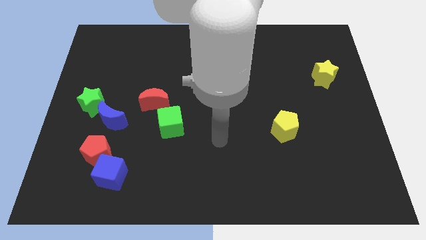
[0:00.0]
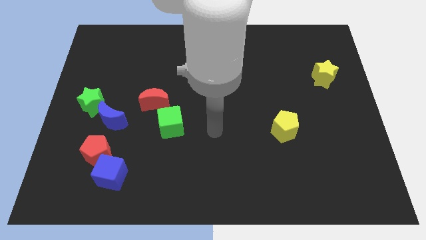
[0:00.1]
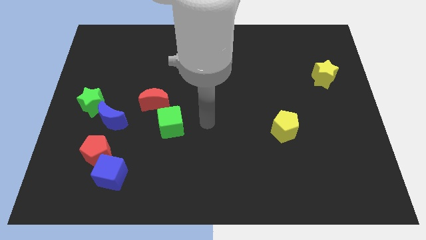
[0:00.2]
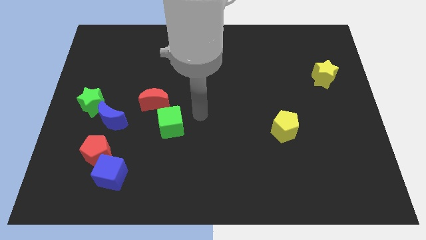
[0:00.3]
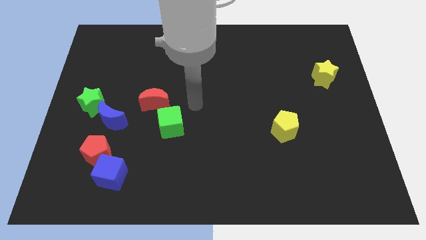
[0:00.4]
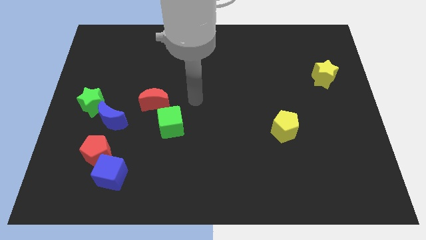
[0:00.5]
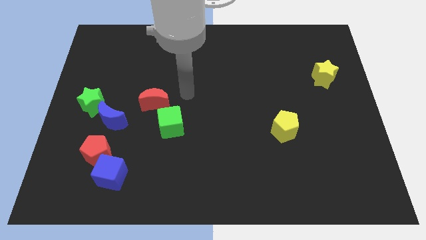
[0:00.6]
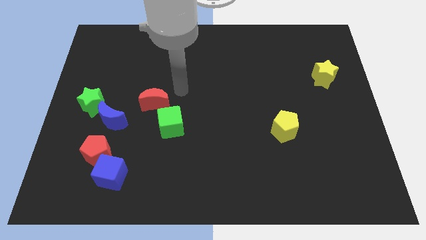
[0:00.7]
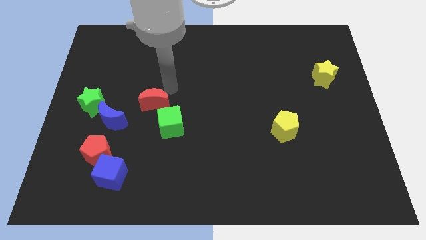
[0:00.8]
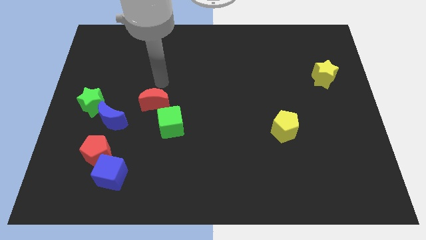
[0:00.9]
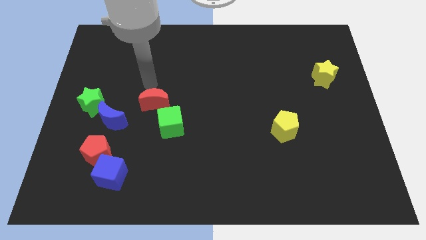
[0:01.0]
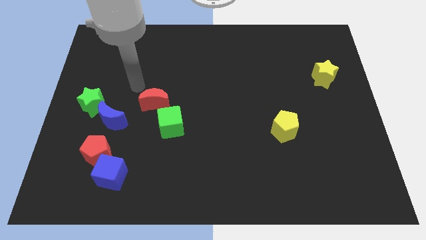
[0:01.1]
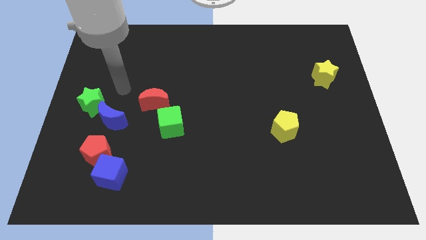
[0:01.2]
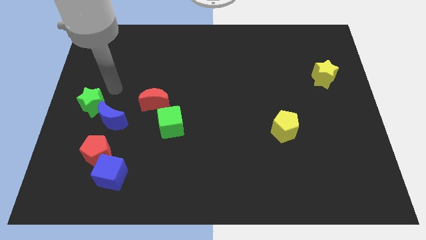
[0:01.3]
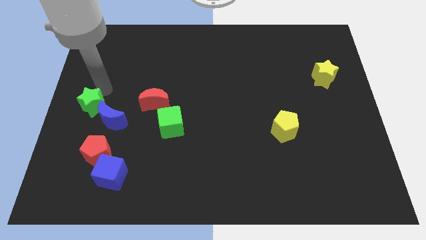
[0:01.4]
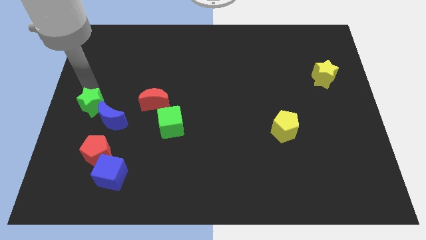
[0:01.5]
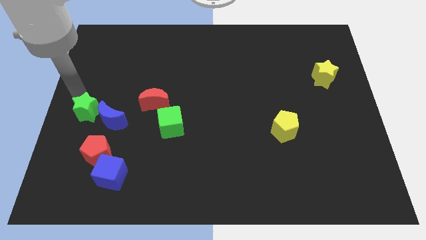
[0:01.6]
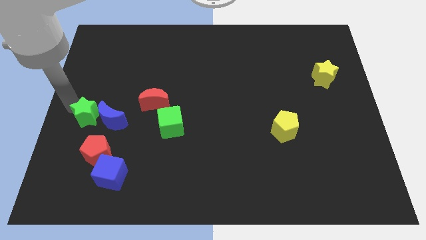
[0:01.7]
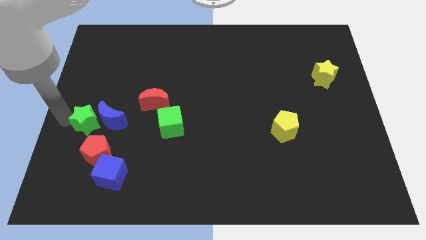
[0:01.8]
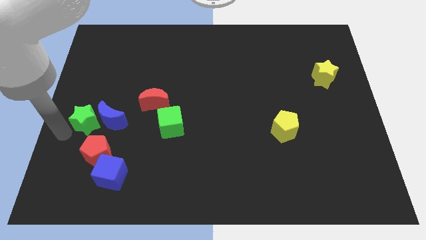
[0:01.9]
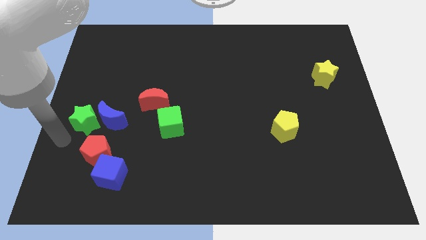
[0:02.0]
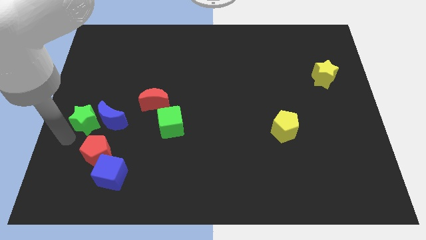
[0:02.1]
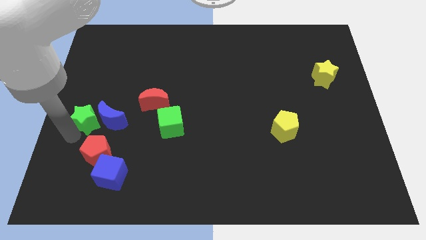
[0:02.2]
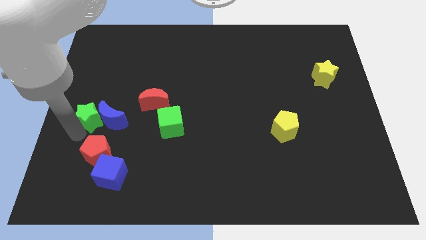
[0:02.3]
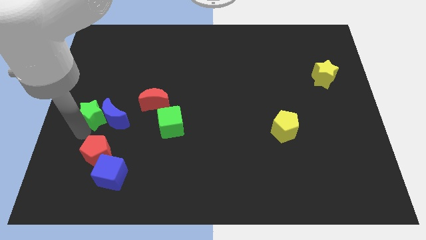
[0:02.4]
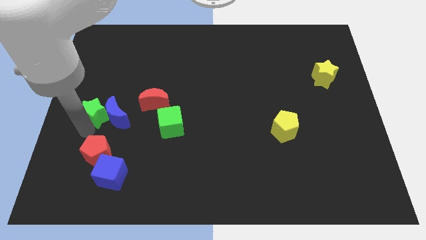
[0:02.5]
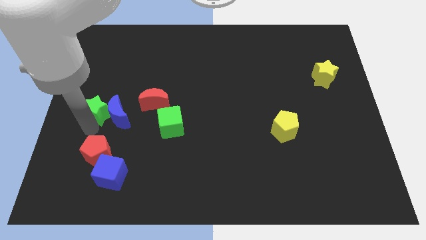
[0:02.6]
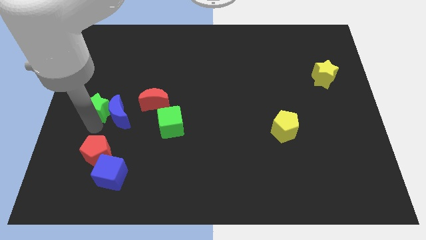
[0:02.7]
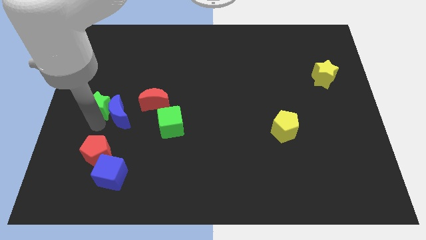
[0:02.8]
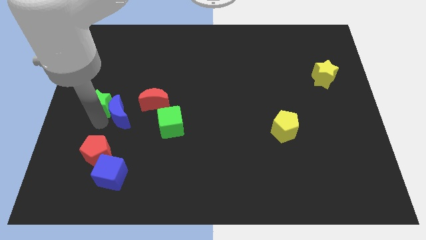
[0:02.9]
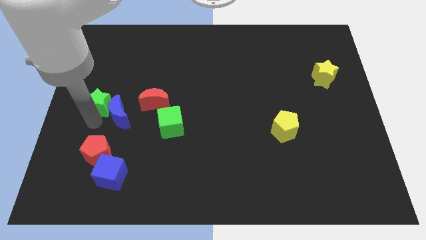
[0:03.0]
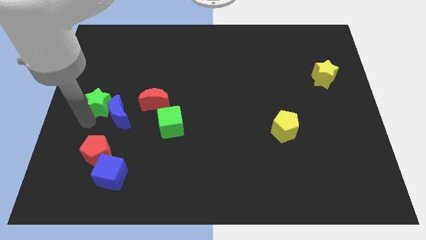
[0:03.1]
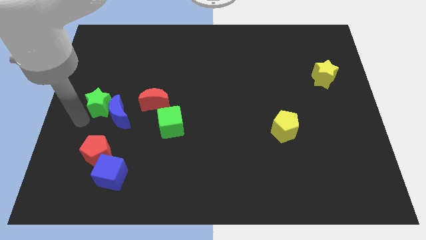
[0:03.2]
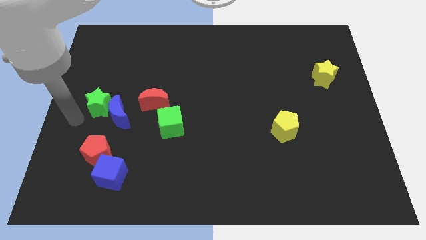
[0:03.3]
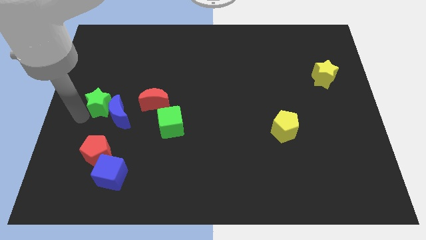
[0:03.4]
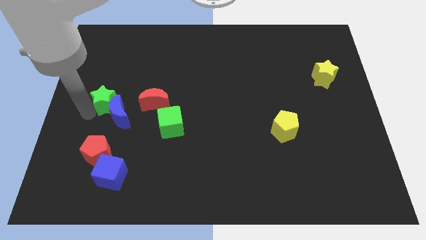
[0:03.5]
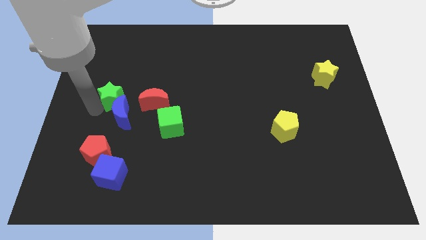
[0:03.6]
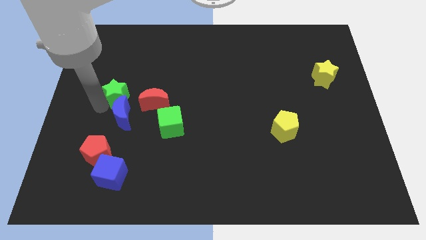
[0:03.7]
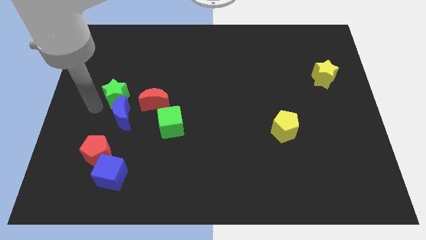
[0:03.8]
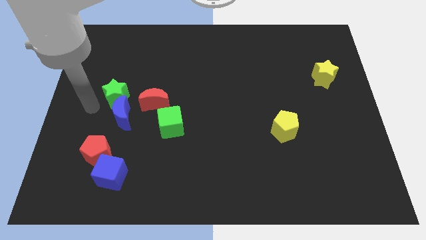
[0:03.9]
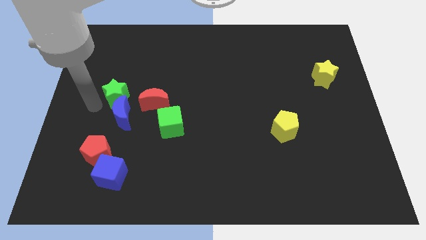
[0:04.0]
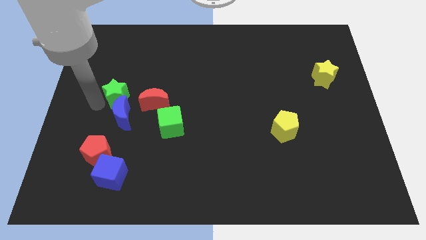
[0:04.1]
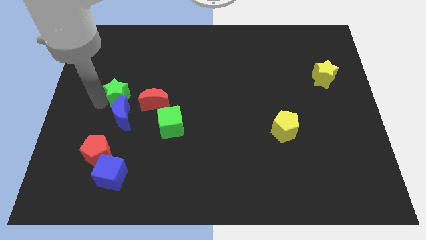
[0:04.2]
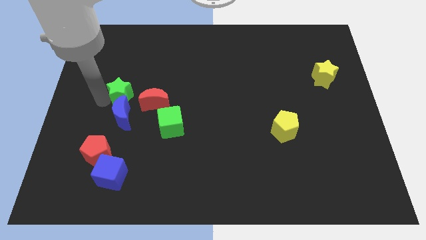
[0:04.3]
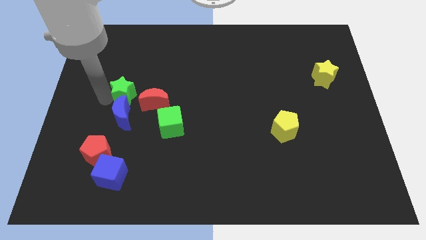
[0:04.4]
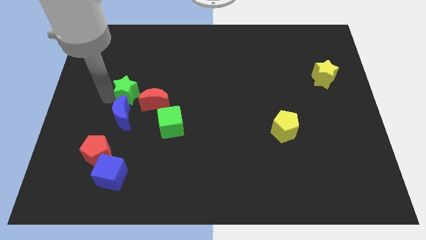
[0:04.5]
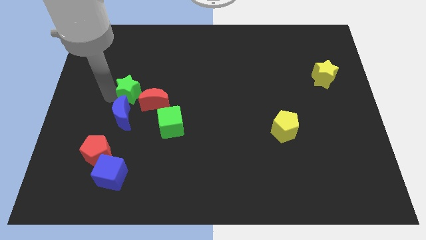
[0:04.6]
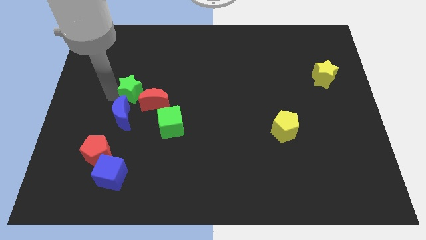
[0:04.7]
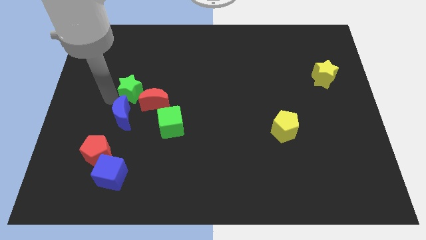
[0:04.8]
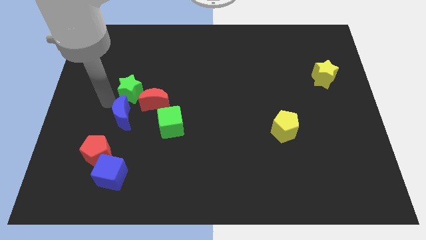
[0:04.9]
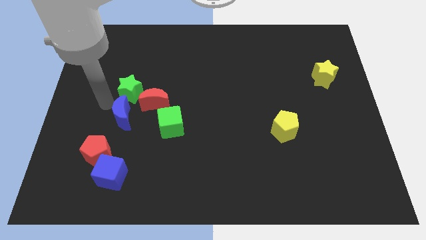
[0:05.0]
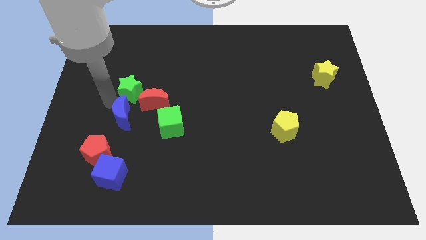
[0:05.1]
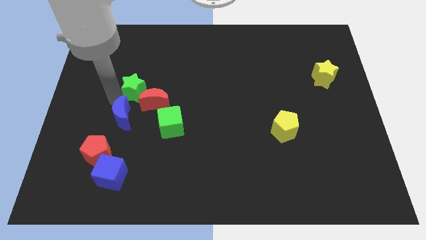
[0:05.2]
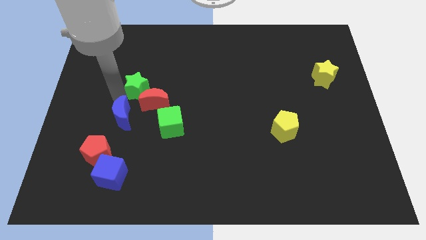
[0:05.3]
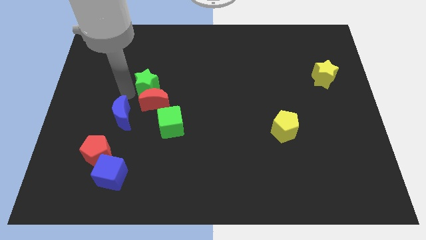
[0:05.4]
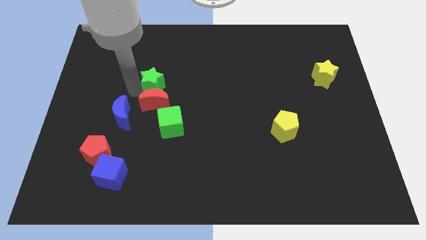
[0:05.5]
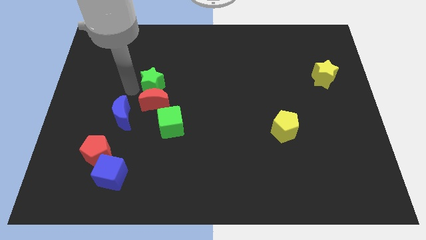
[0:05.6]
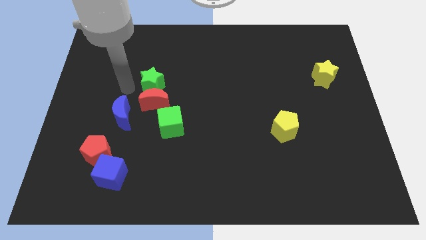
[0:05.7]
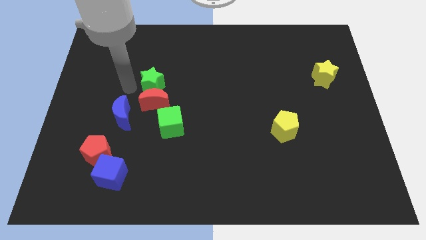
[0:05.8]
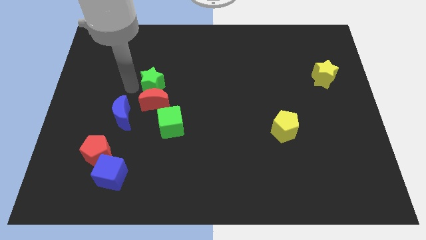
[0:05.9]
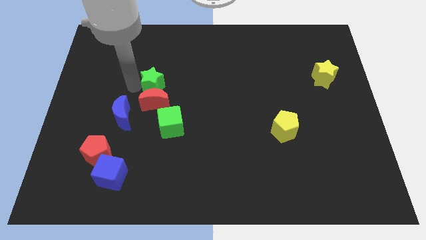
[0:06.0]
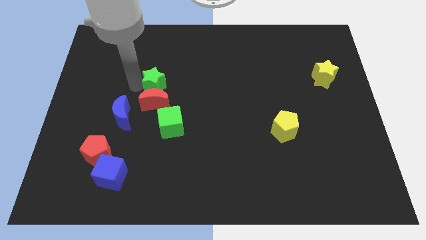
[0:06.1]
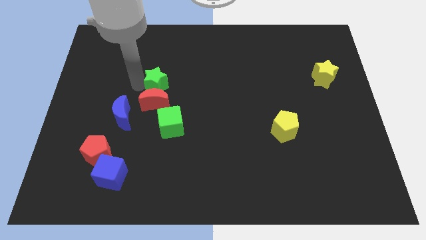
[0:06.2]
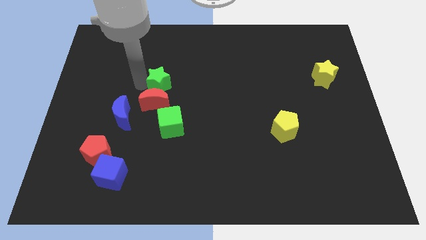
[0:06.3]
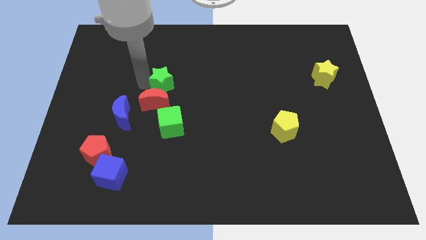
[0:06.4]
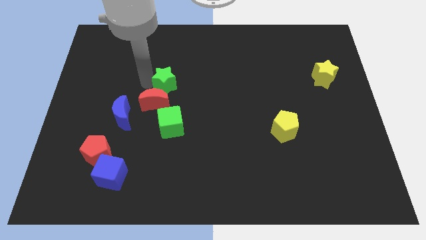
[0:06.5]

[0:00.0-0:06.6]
move the green star to the center of the board

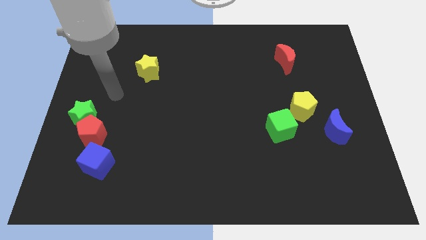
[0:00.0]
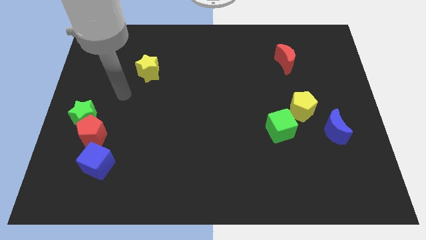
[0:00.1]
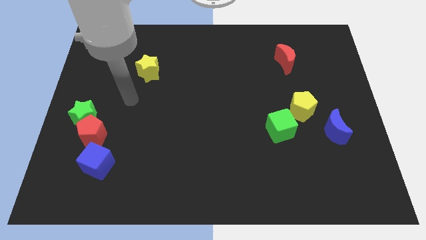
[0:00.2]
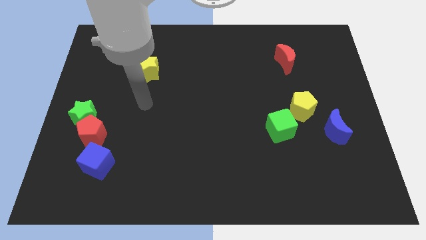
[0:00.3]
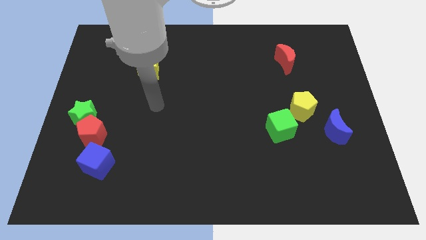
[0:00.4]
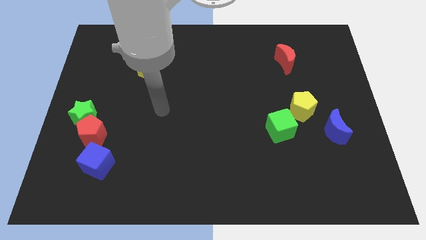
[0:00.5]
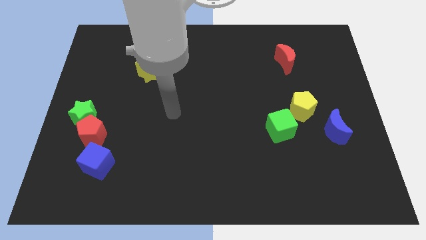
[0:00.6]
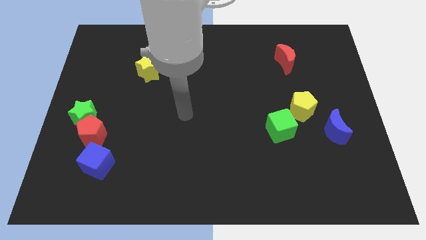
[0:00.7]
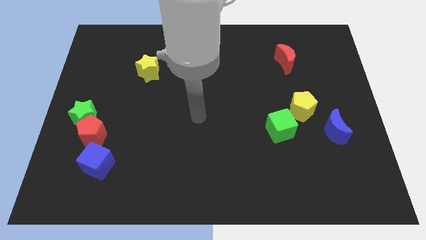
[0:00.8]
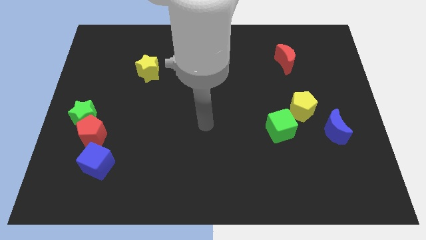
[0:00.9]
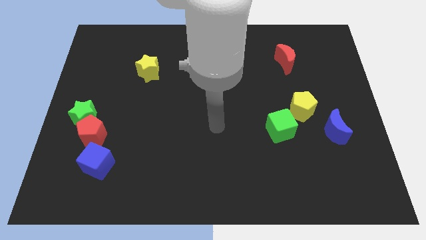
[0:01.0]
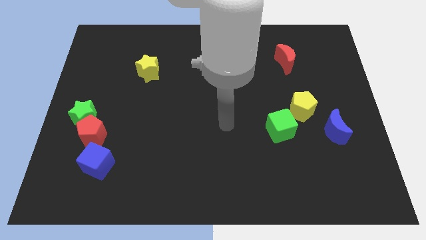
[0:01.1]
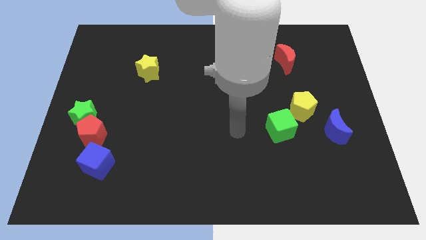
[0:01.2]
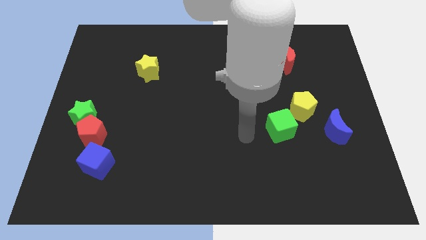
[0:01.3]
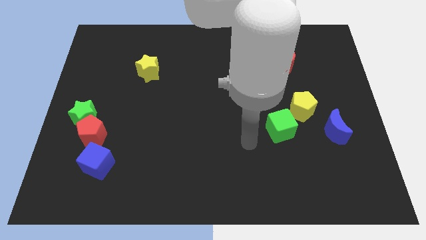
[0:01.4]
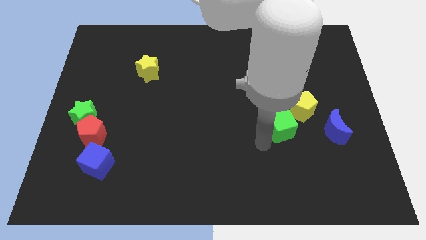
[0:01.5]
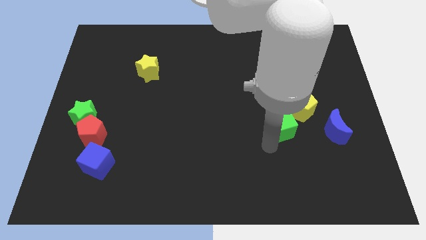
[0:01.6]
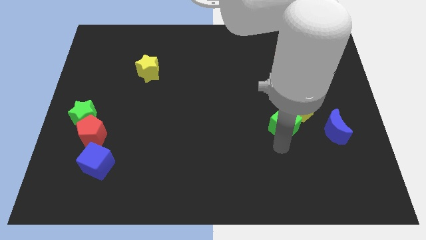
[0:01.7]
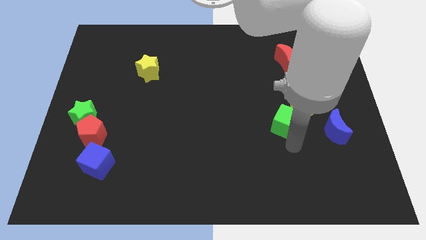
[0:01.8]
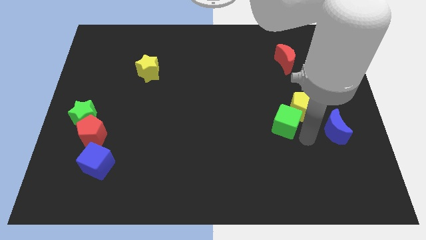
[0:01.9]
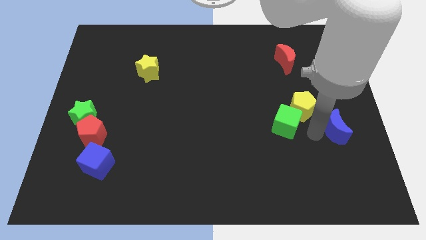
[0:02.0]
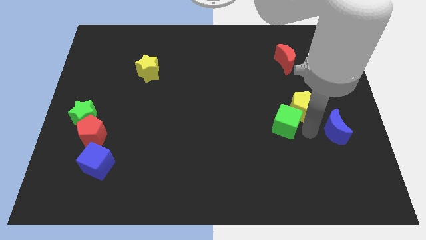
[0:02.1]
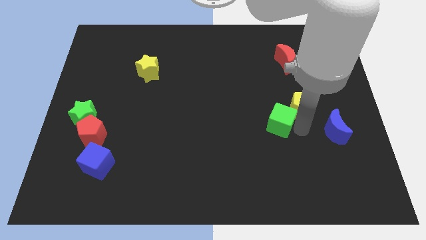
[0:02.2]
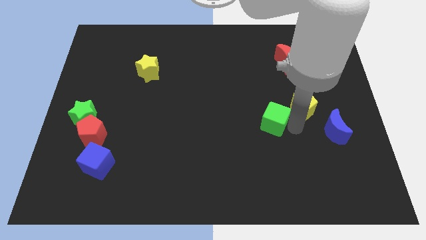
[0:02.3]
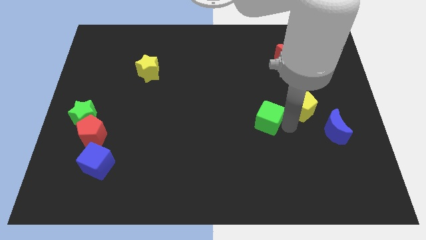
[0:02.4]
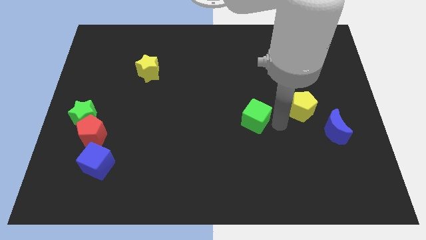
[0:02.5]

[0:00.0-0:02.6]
move the green cube to the center of the board
